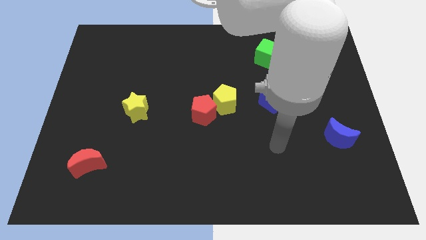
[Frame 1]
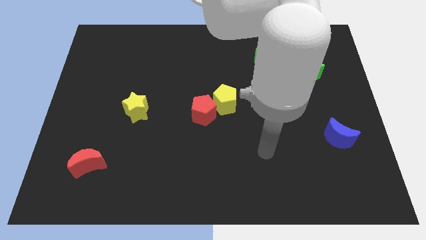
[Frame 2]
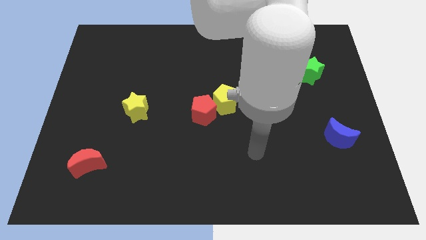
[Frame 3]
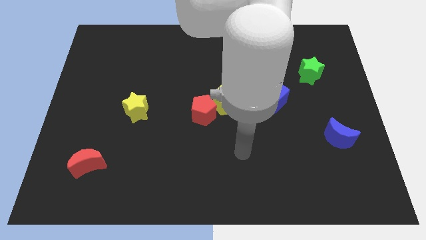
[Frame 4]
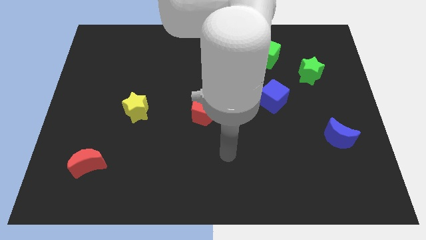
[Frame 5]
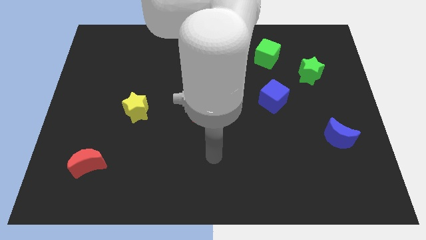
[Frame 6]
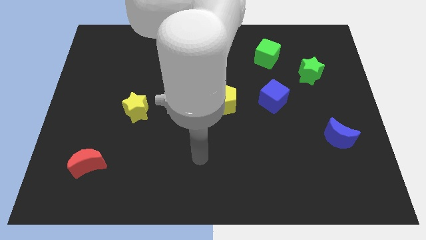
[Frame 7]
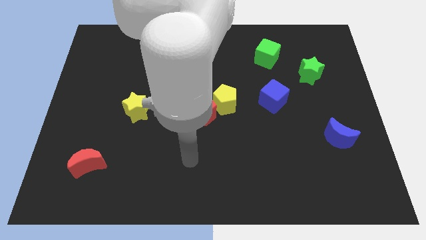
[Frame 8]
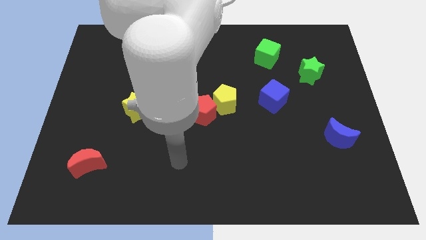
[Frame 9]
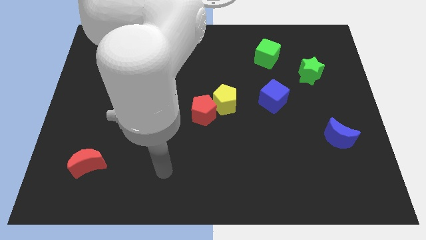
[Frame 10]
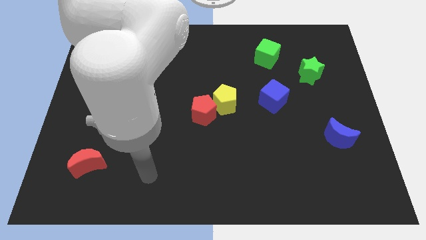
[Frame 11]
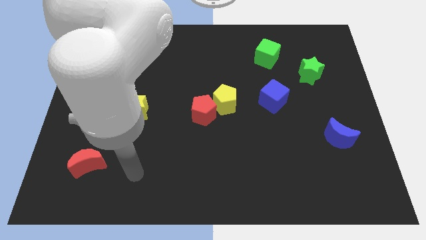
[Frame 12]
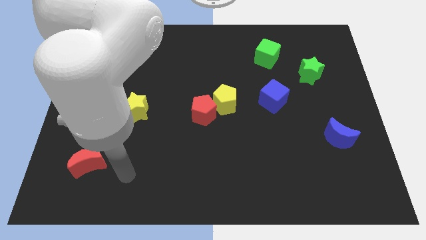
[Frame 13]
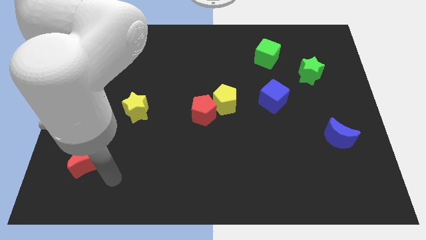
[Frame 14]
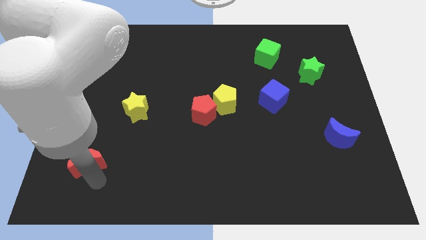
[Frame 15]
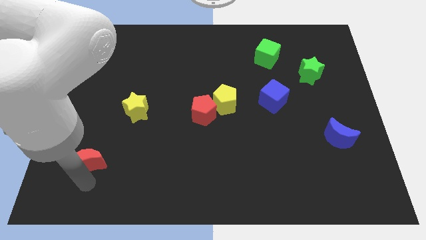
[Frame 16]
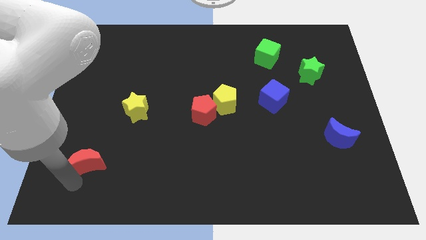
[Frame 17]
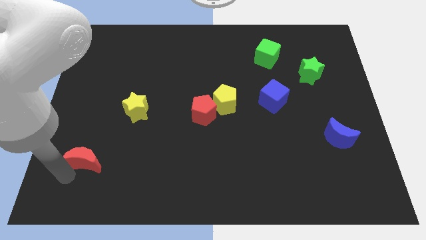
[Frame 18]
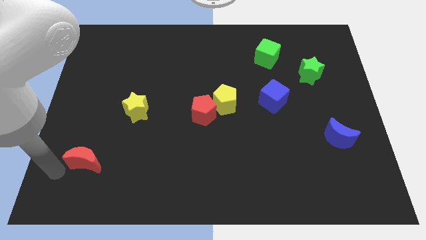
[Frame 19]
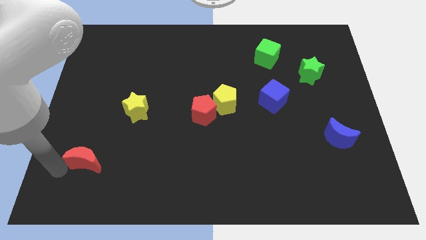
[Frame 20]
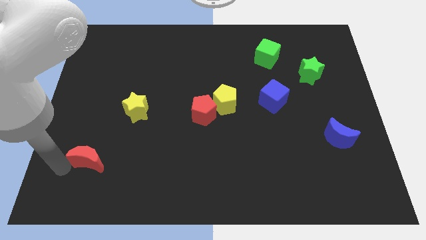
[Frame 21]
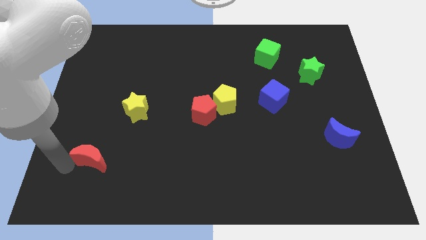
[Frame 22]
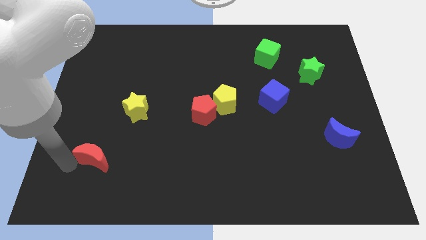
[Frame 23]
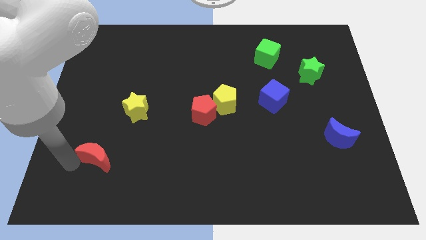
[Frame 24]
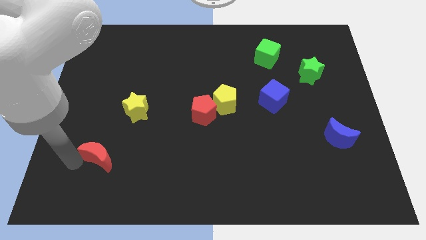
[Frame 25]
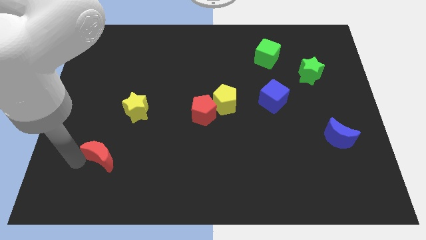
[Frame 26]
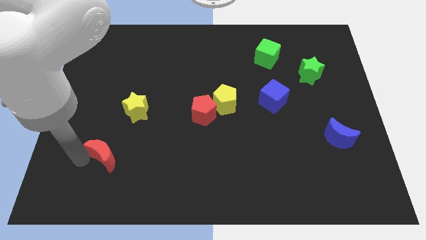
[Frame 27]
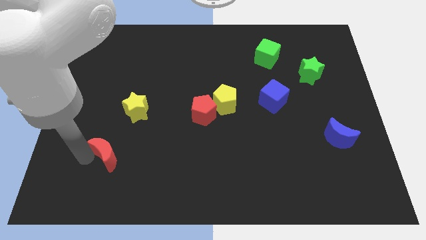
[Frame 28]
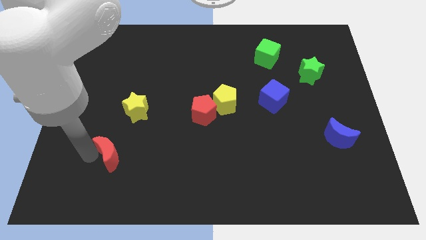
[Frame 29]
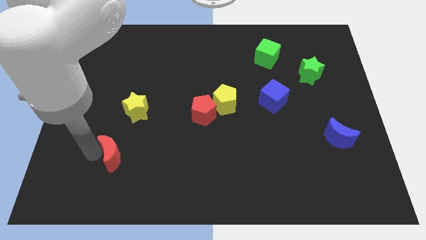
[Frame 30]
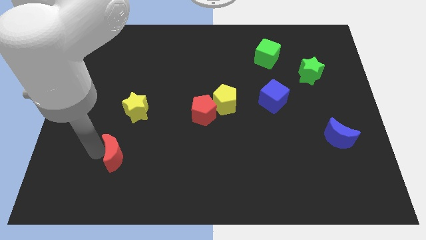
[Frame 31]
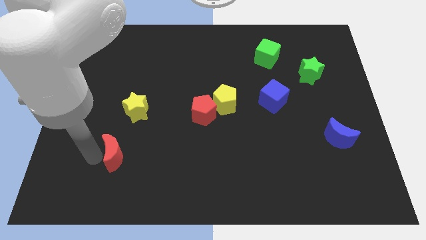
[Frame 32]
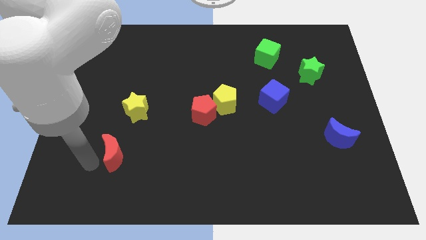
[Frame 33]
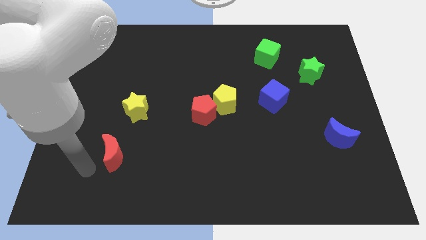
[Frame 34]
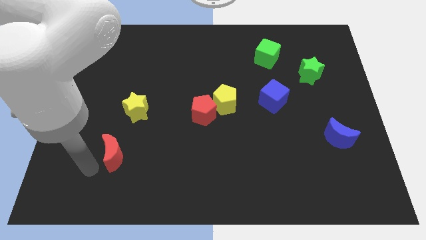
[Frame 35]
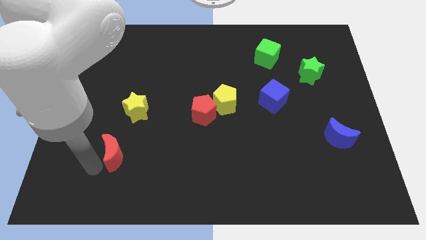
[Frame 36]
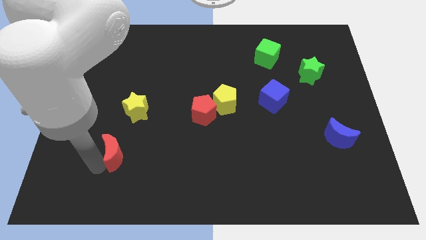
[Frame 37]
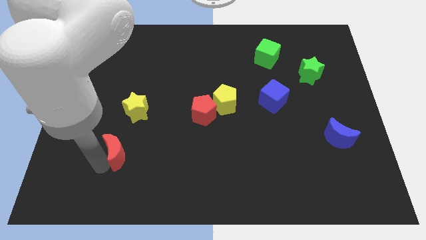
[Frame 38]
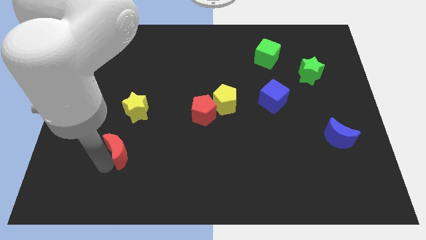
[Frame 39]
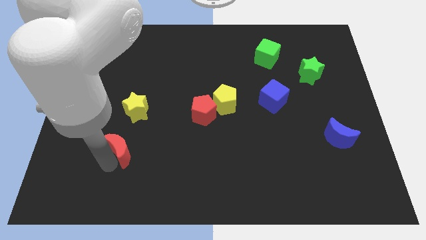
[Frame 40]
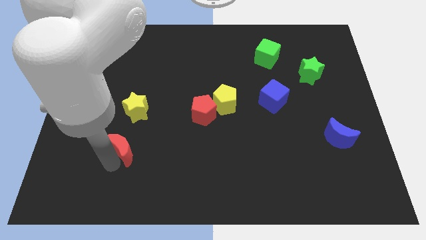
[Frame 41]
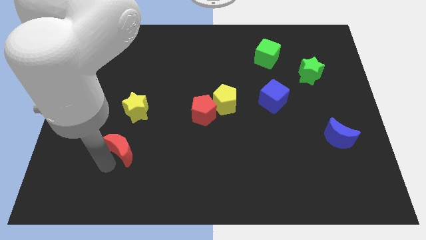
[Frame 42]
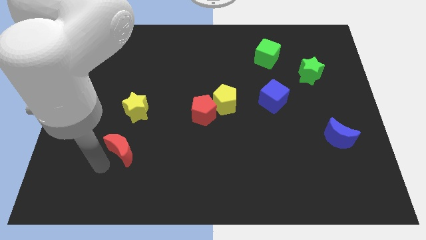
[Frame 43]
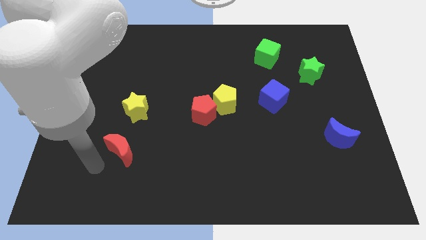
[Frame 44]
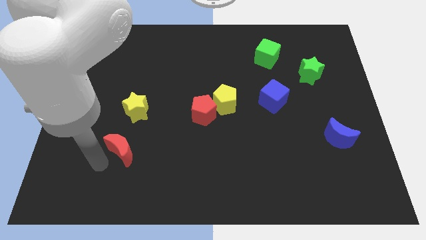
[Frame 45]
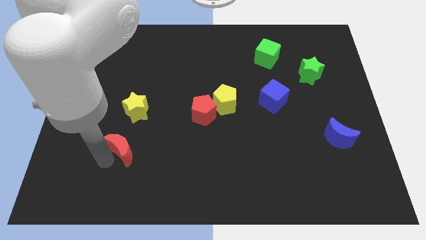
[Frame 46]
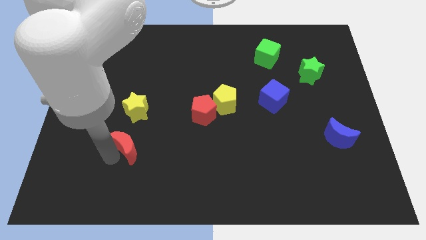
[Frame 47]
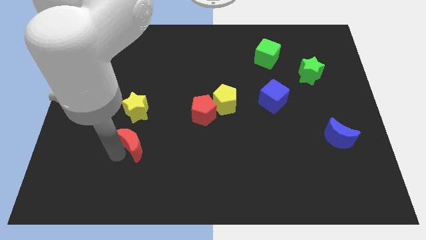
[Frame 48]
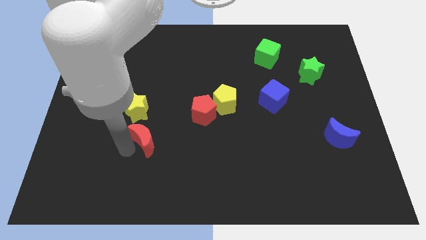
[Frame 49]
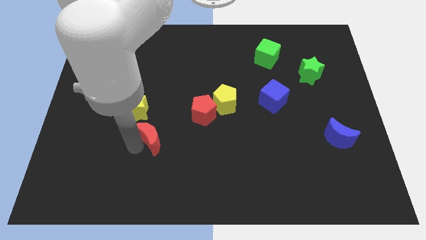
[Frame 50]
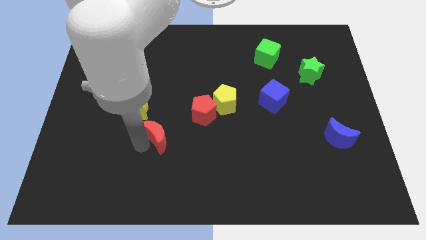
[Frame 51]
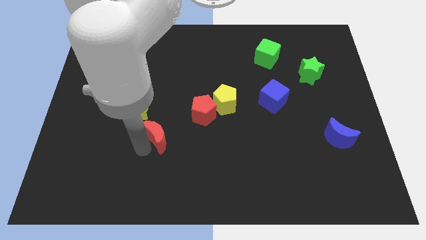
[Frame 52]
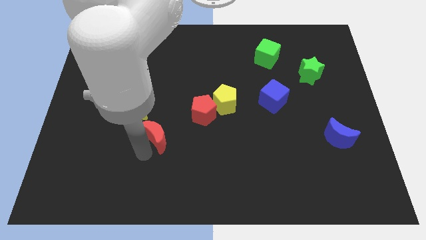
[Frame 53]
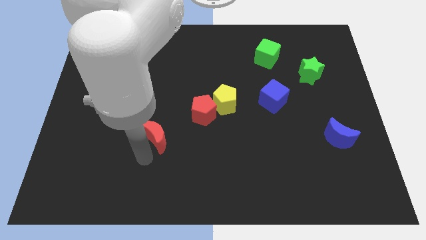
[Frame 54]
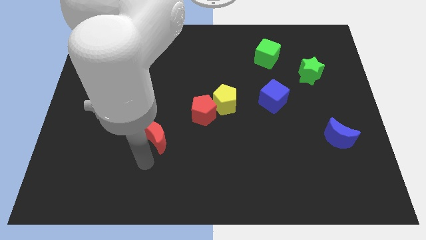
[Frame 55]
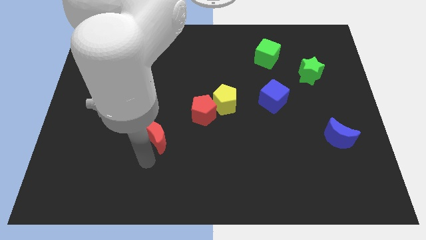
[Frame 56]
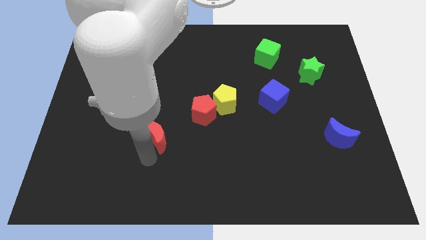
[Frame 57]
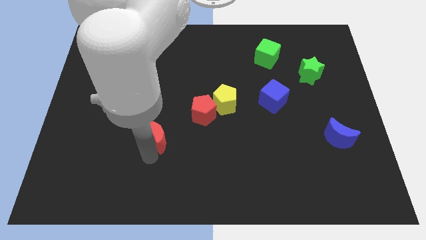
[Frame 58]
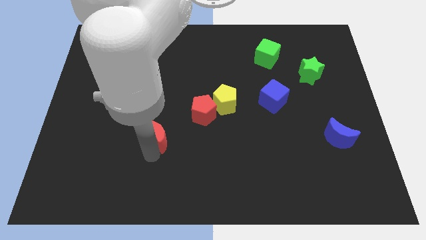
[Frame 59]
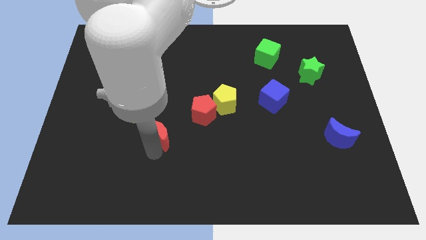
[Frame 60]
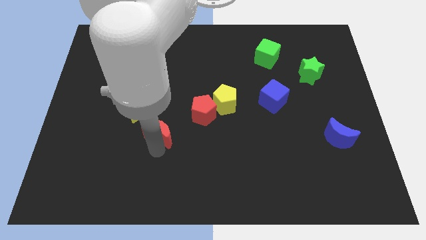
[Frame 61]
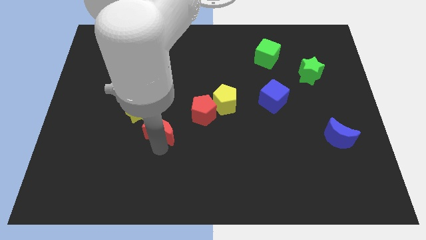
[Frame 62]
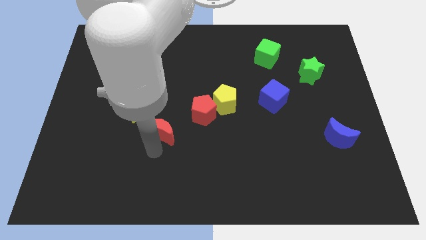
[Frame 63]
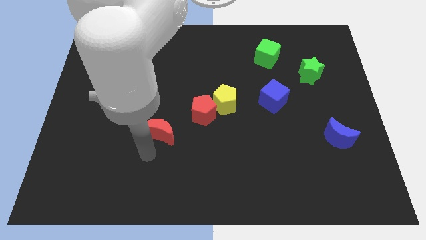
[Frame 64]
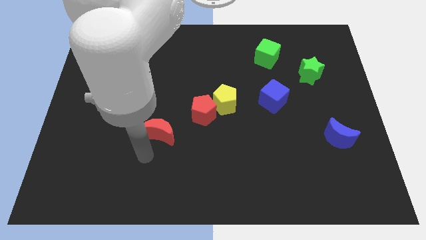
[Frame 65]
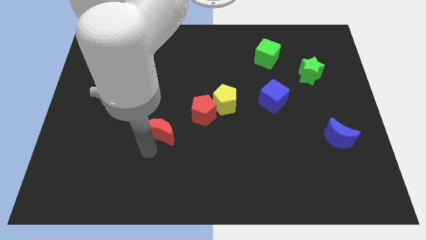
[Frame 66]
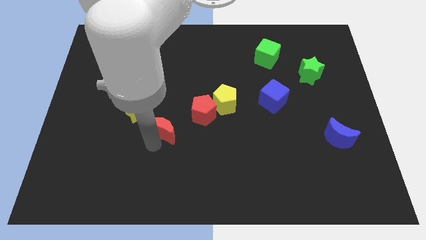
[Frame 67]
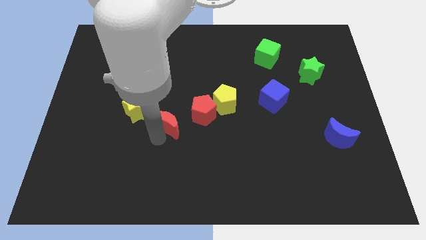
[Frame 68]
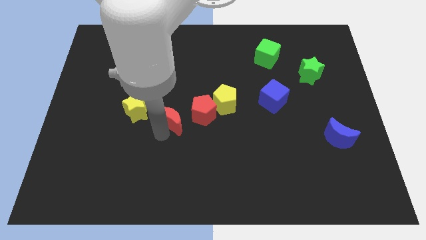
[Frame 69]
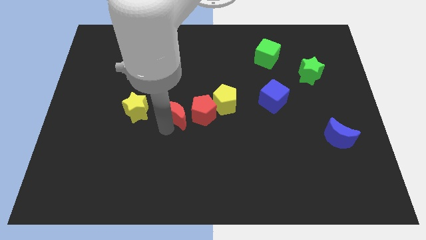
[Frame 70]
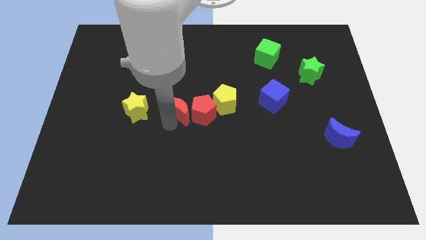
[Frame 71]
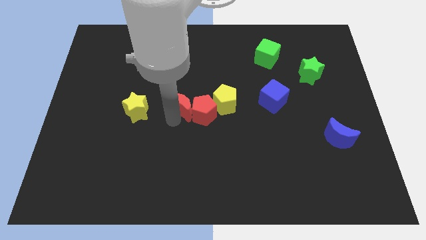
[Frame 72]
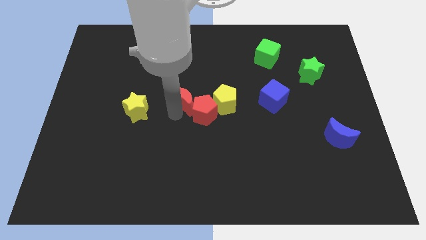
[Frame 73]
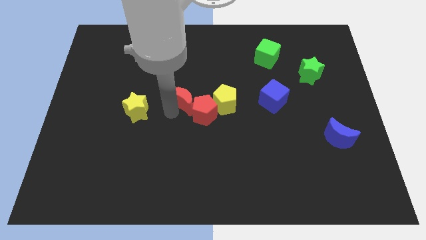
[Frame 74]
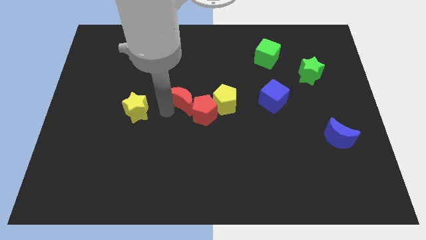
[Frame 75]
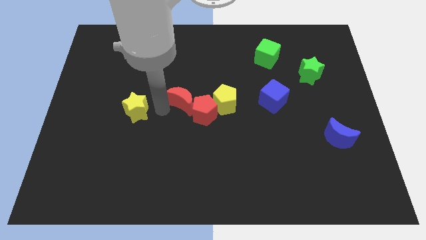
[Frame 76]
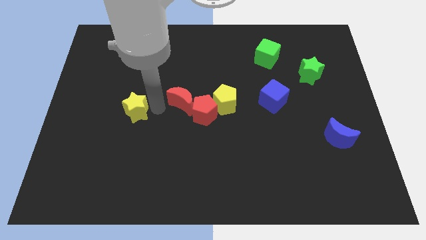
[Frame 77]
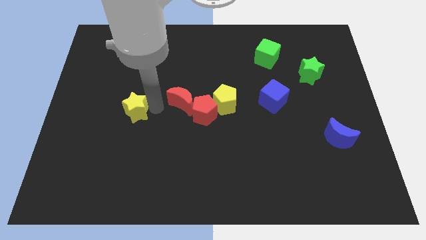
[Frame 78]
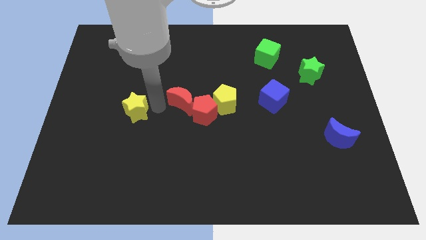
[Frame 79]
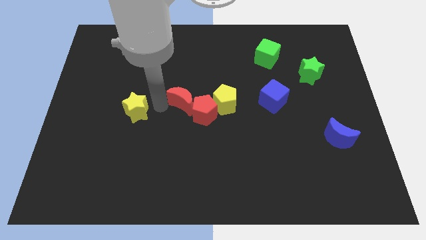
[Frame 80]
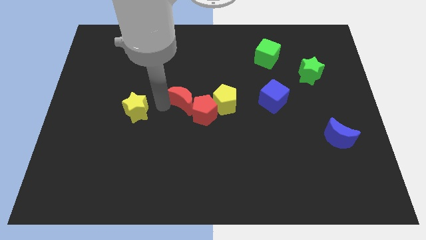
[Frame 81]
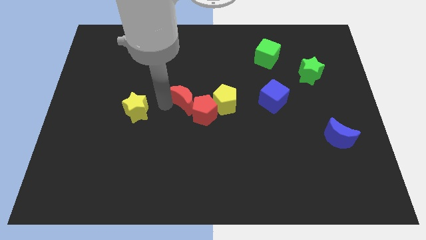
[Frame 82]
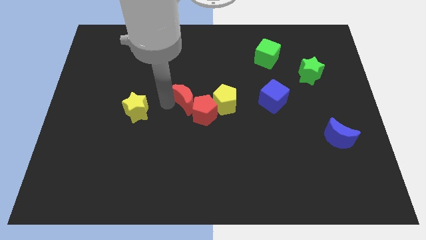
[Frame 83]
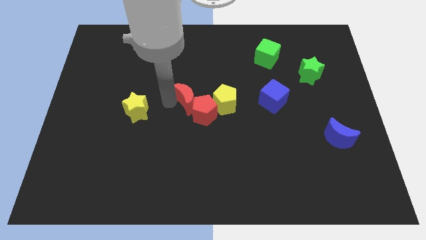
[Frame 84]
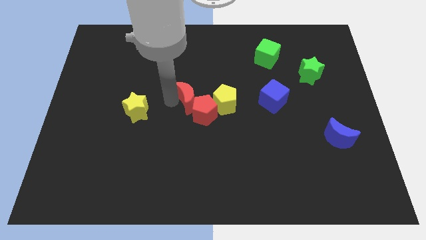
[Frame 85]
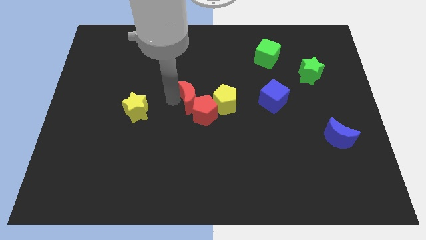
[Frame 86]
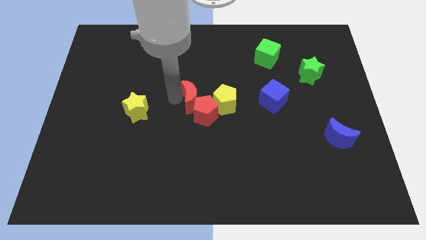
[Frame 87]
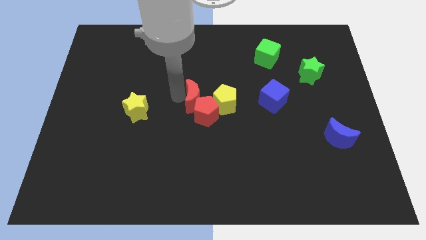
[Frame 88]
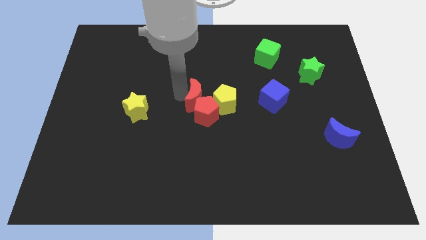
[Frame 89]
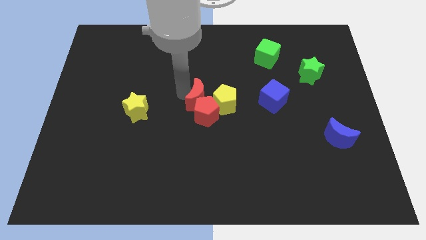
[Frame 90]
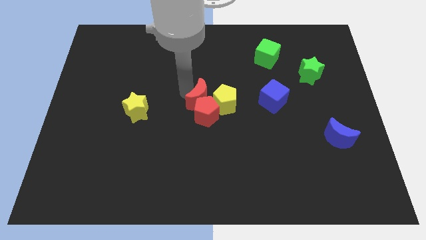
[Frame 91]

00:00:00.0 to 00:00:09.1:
push the red moon to the yellow pentagon
